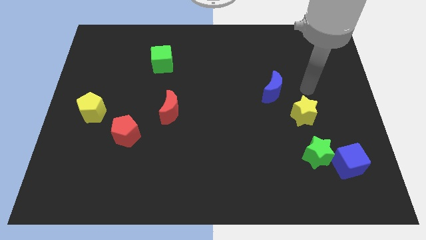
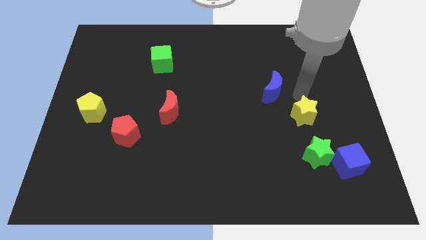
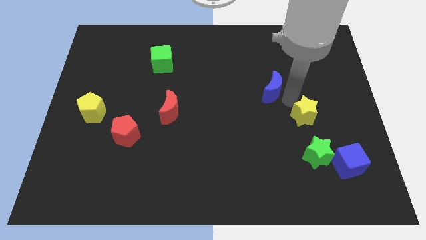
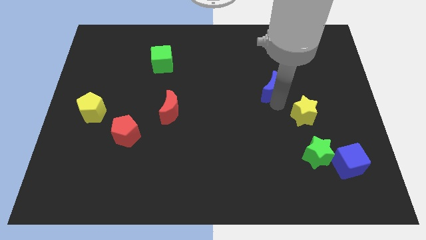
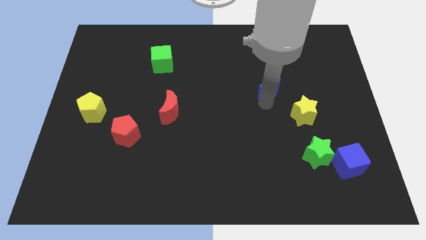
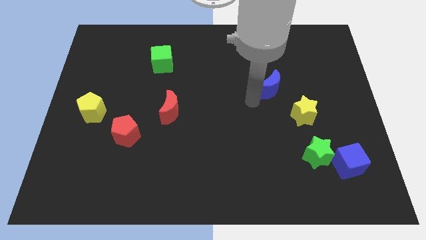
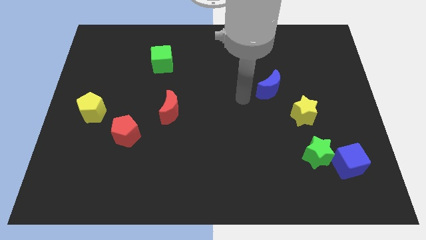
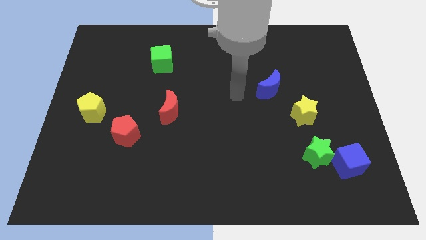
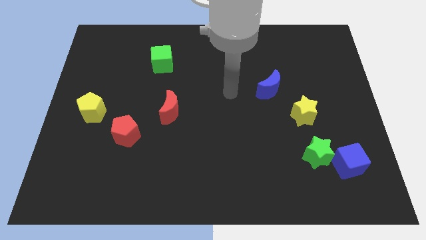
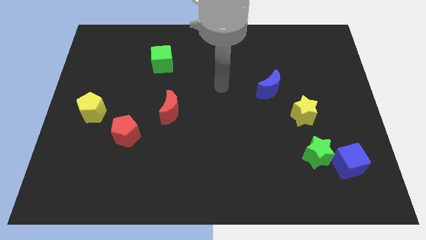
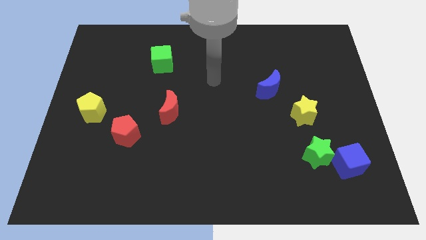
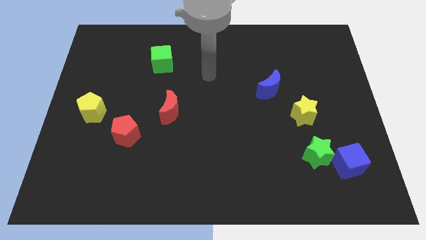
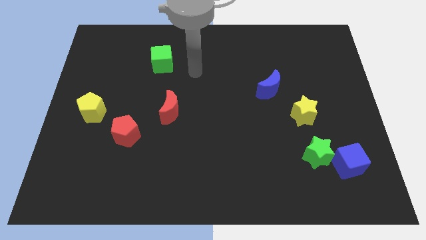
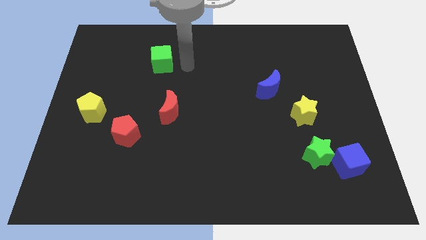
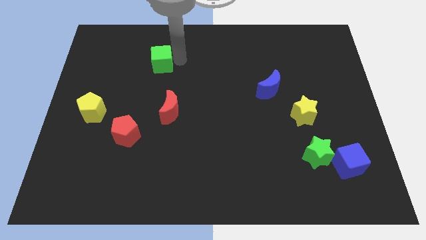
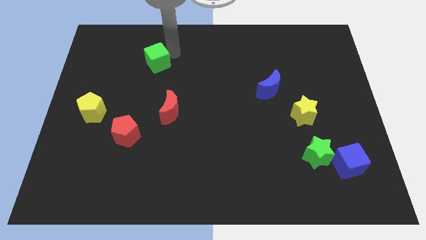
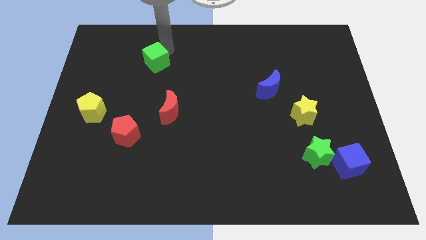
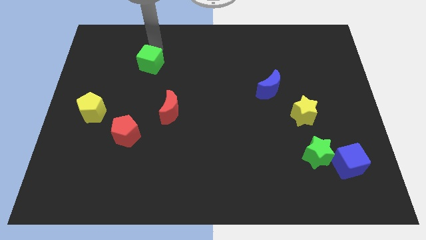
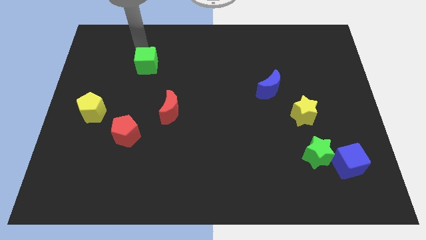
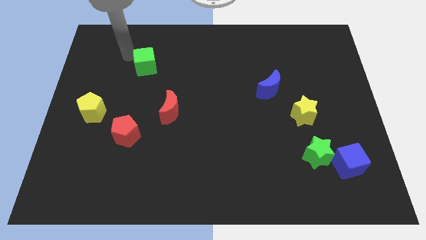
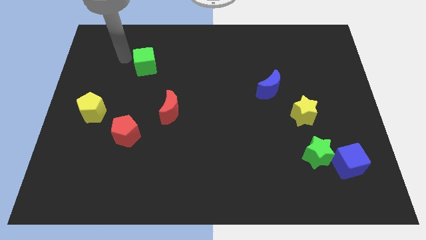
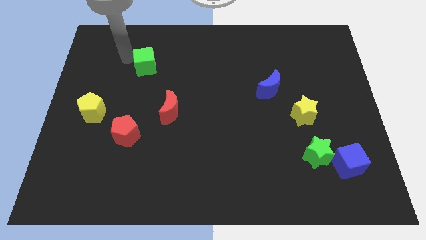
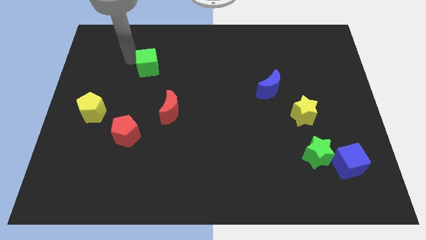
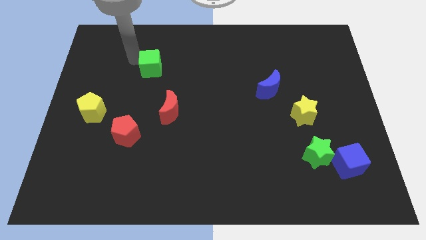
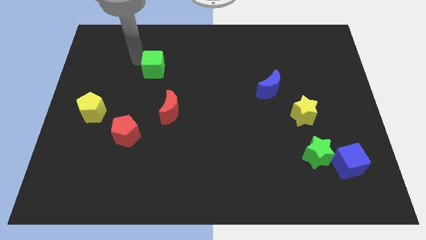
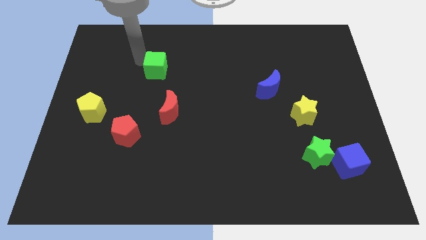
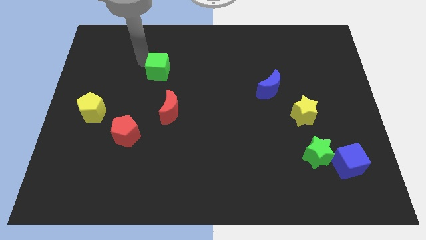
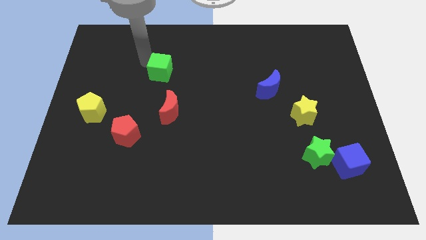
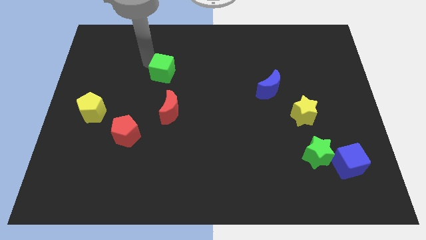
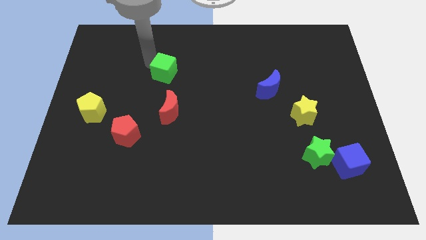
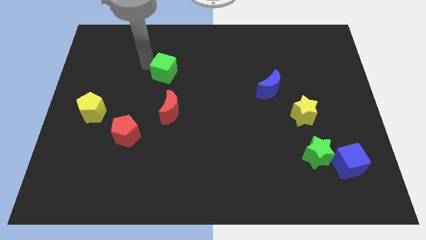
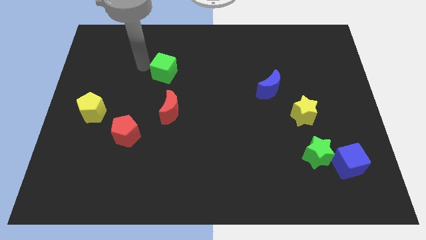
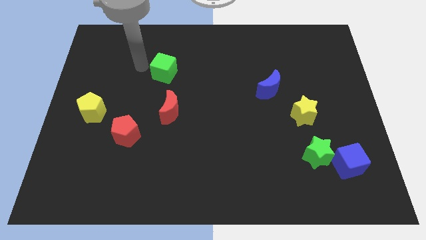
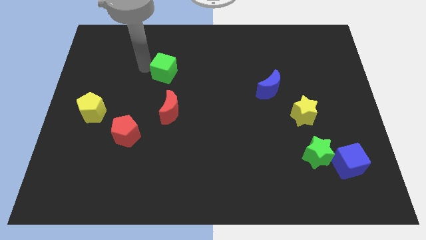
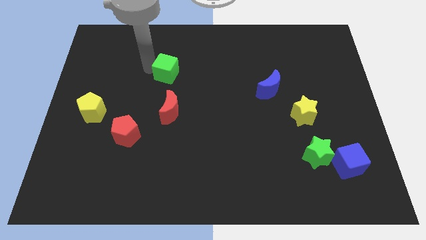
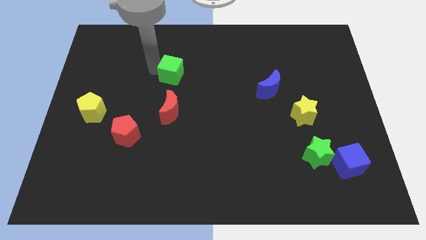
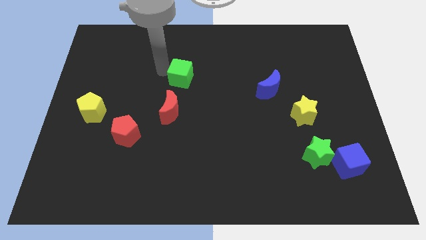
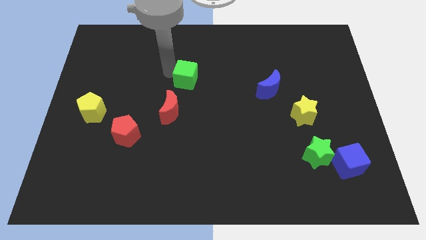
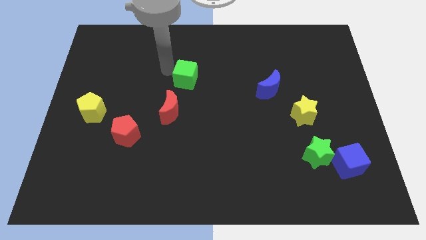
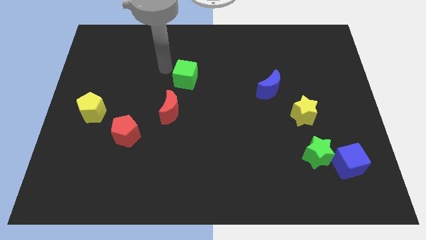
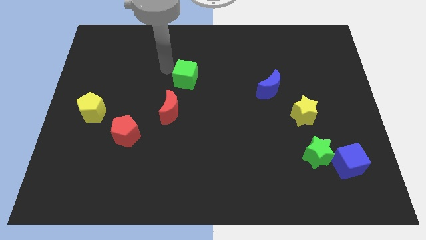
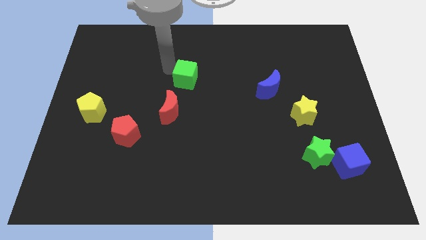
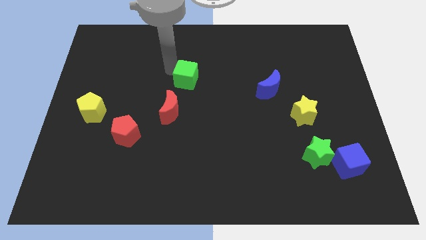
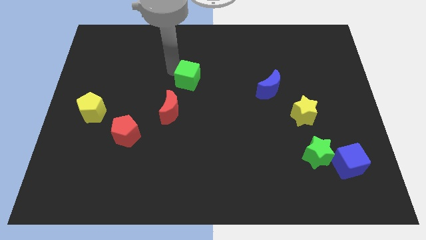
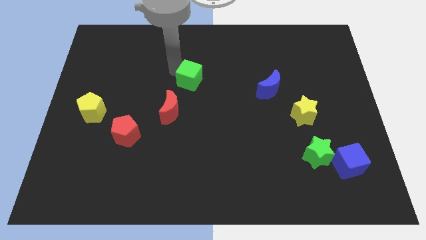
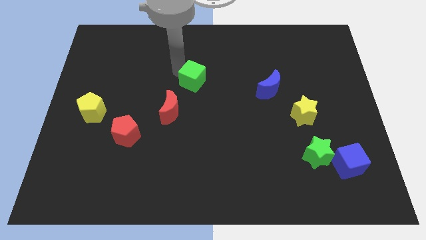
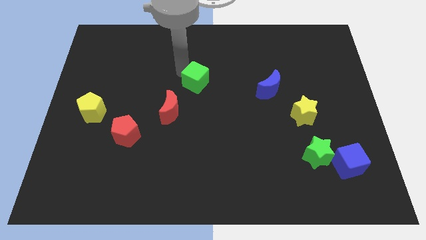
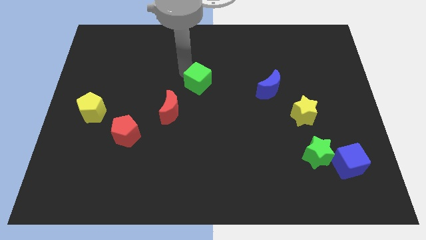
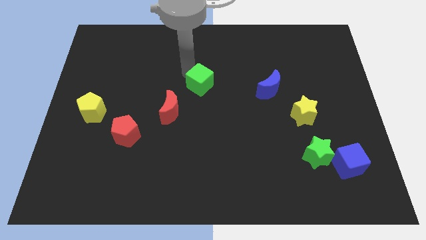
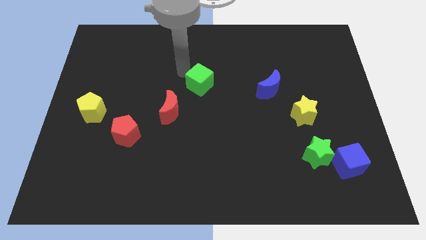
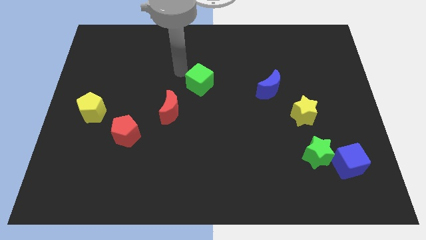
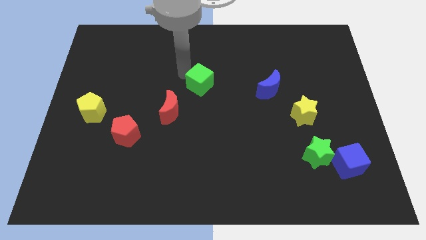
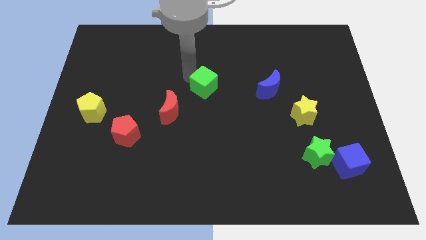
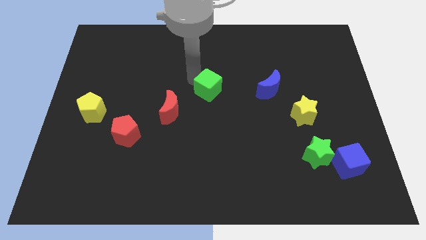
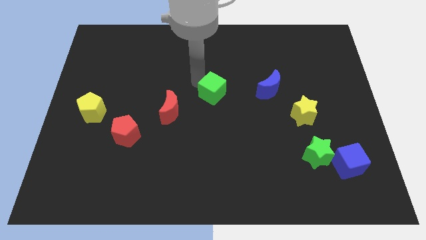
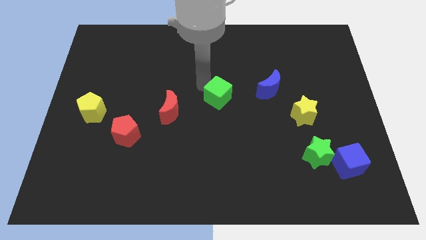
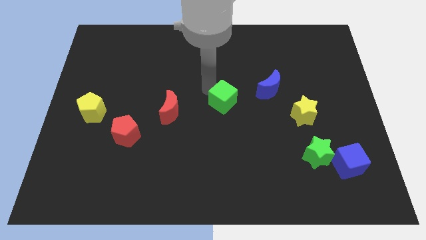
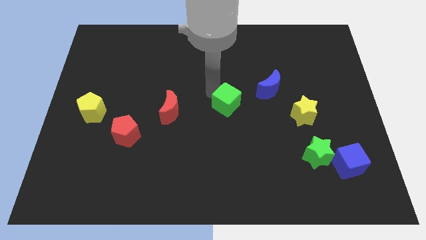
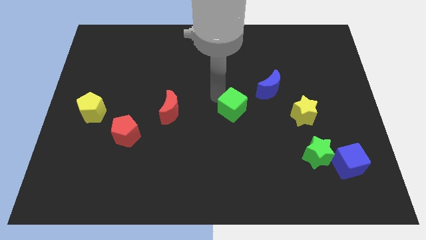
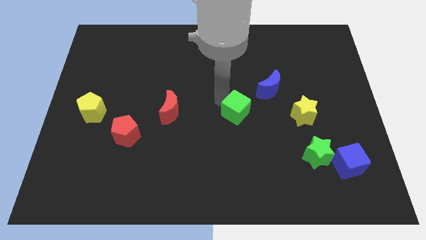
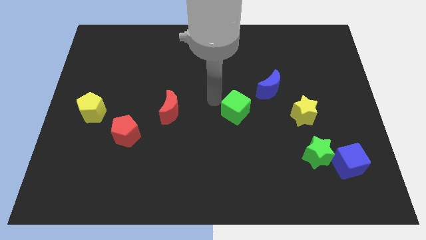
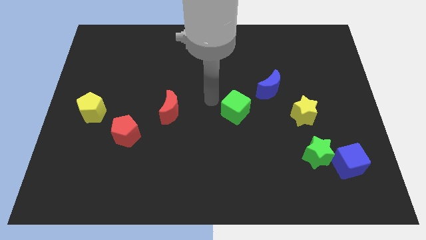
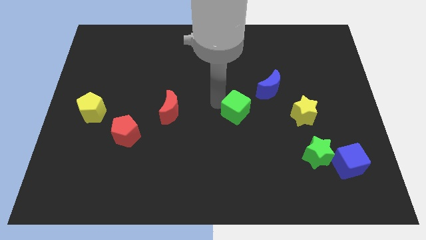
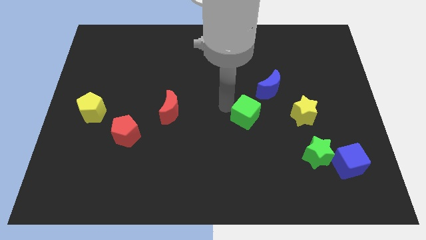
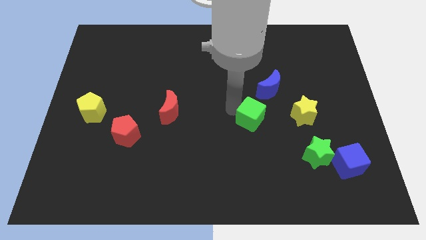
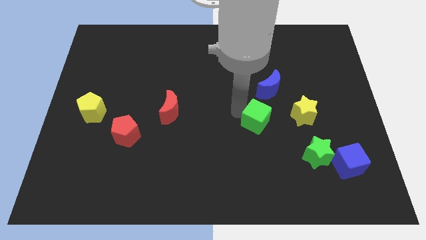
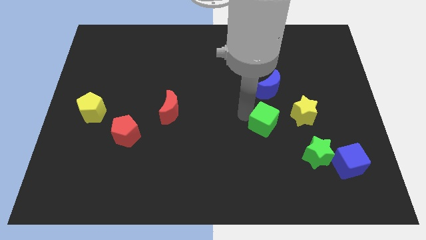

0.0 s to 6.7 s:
put the green cube to the bottom left of the yellow star
